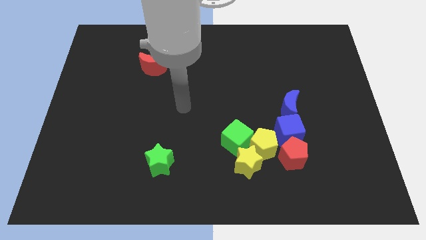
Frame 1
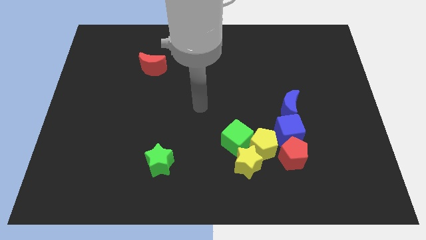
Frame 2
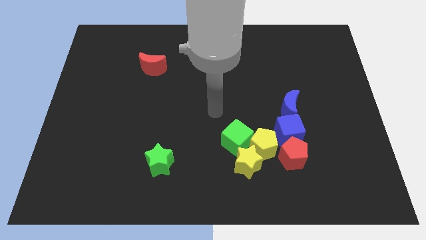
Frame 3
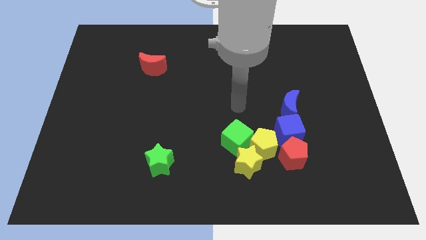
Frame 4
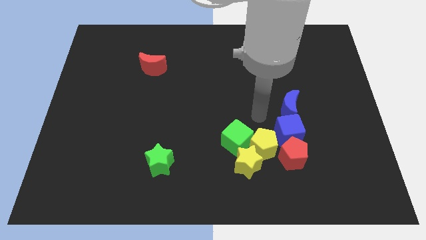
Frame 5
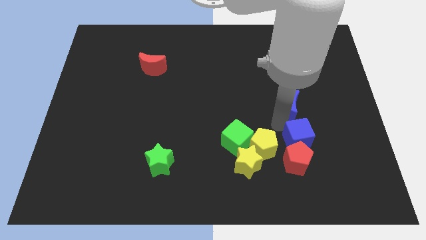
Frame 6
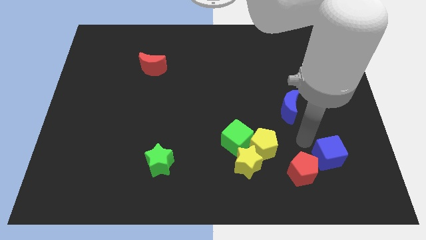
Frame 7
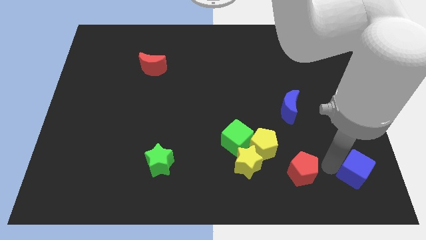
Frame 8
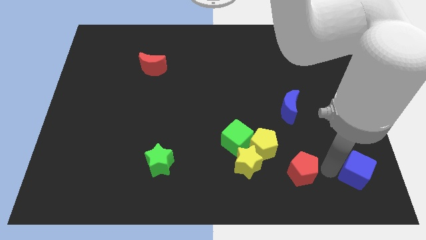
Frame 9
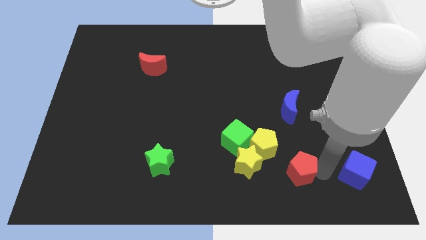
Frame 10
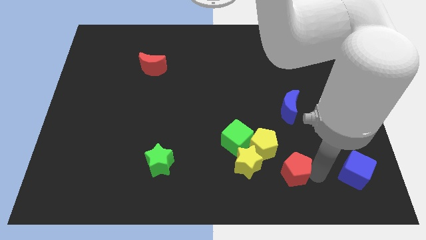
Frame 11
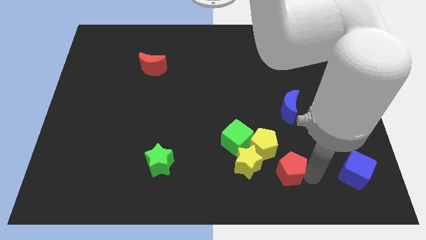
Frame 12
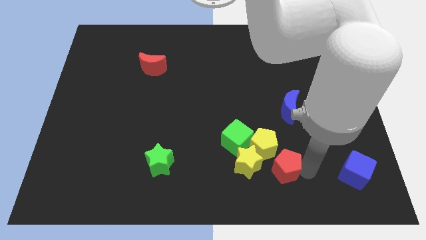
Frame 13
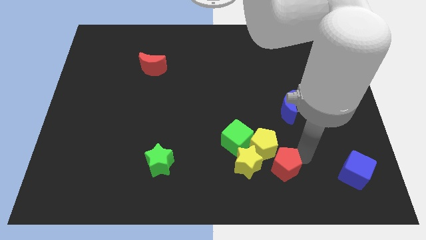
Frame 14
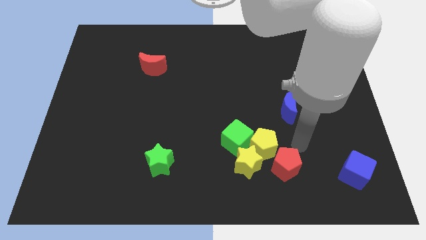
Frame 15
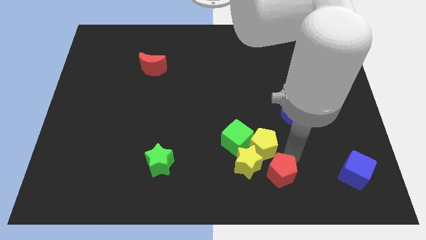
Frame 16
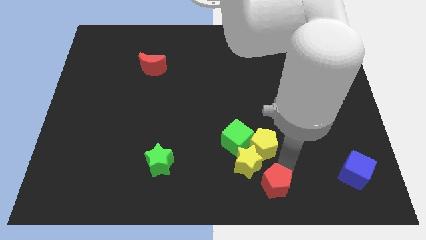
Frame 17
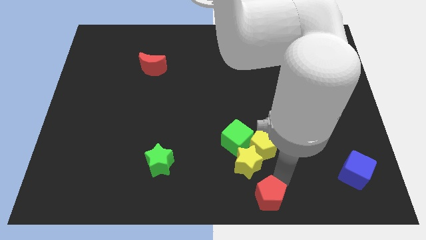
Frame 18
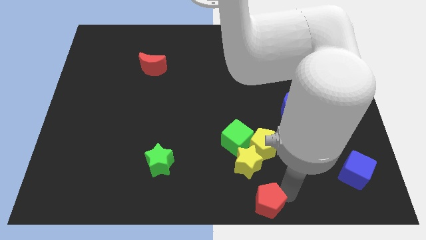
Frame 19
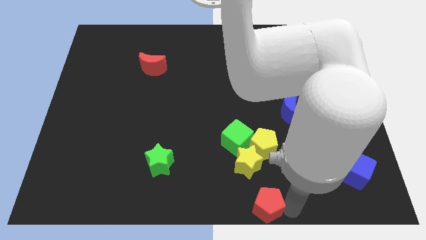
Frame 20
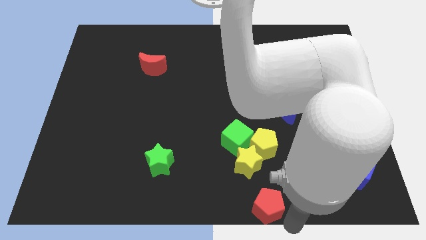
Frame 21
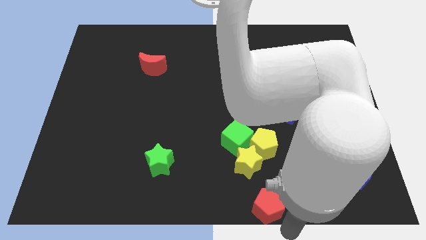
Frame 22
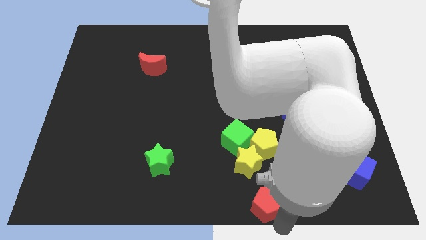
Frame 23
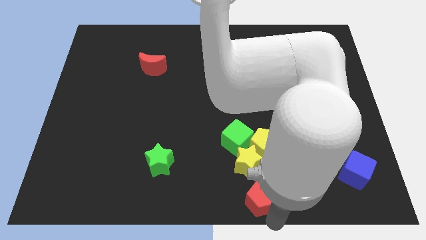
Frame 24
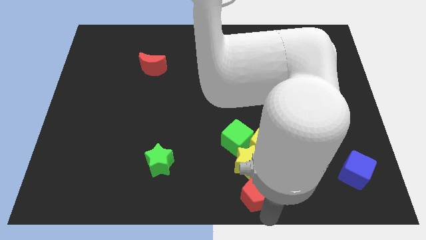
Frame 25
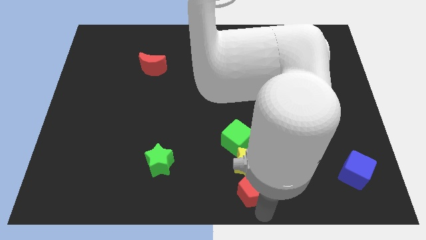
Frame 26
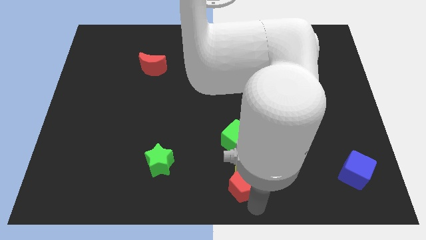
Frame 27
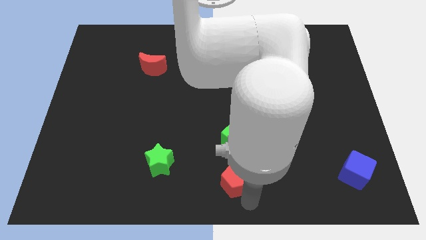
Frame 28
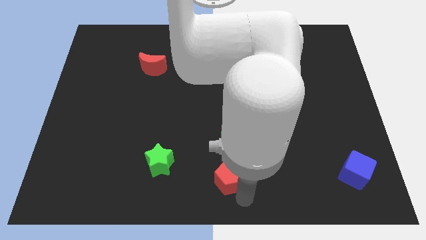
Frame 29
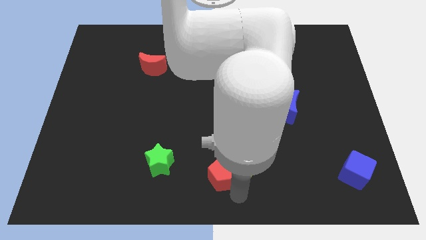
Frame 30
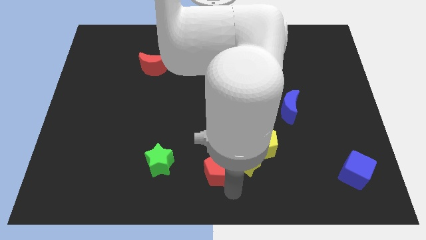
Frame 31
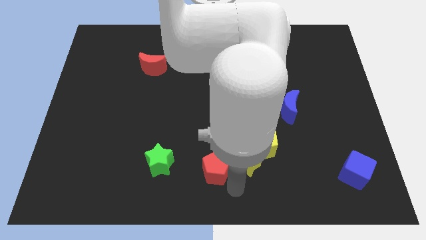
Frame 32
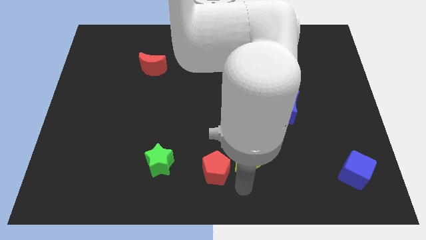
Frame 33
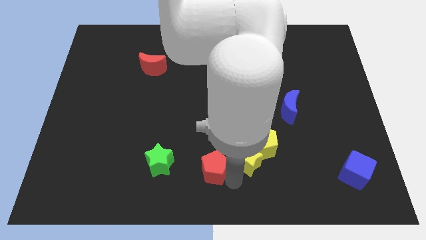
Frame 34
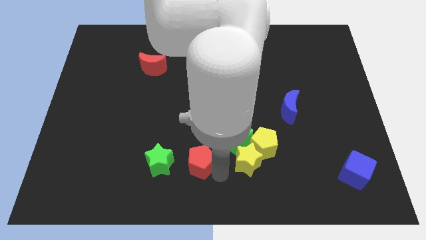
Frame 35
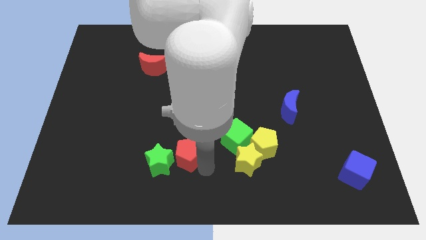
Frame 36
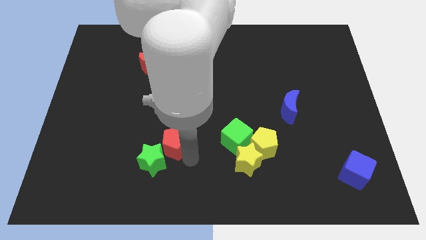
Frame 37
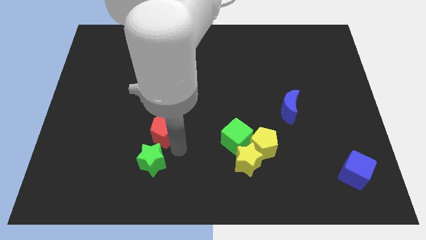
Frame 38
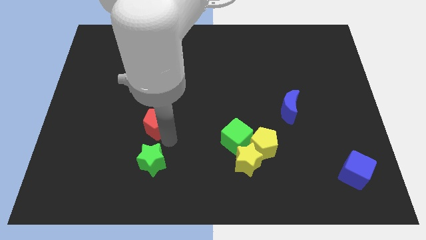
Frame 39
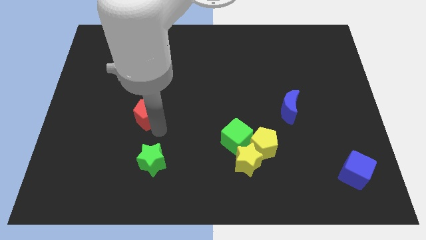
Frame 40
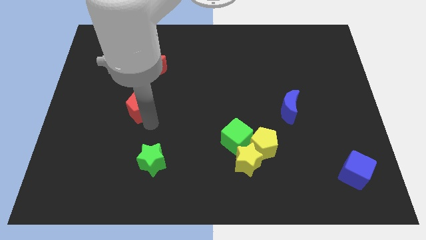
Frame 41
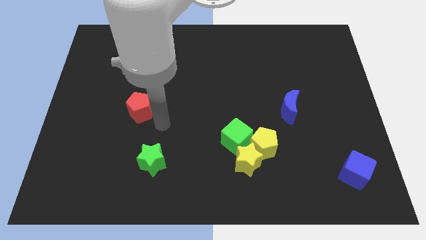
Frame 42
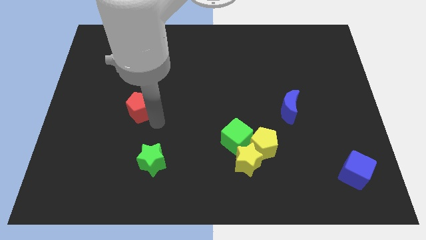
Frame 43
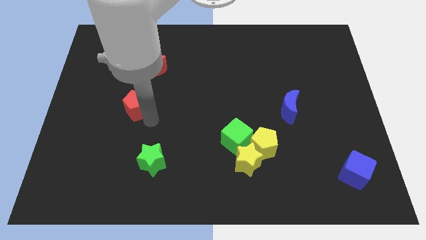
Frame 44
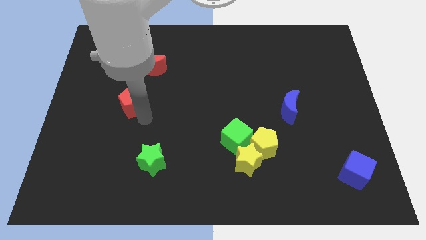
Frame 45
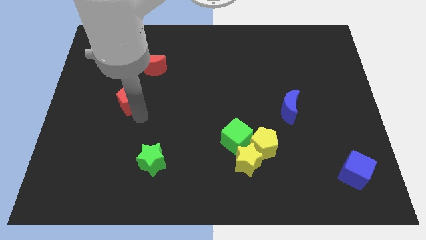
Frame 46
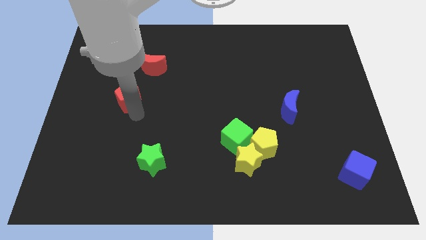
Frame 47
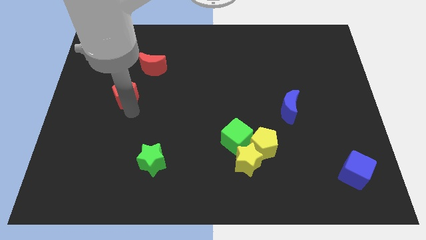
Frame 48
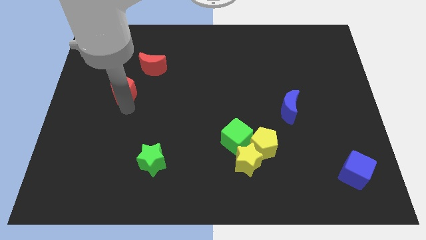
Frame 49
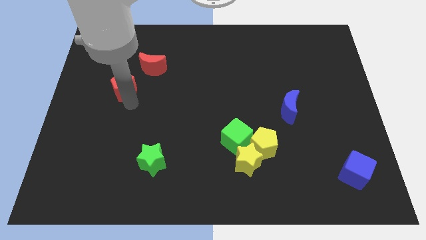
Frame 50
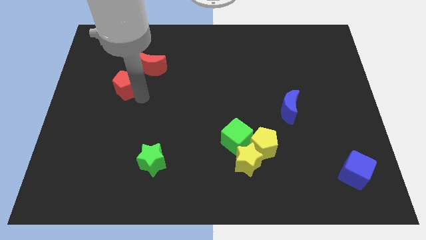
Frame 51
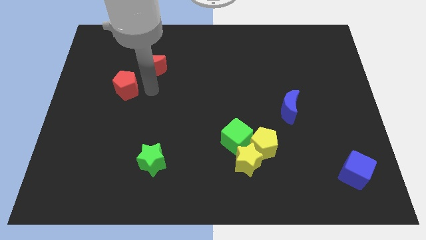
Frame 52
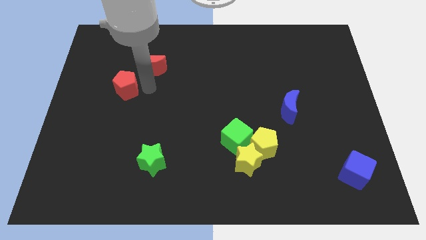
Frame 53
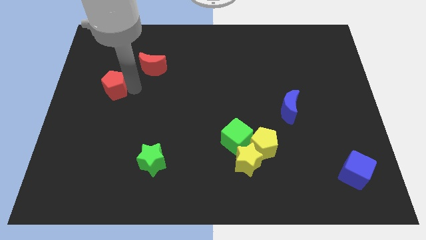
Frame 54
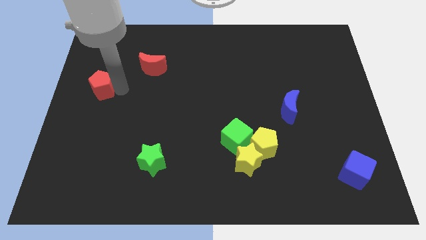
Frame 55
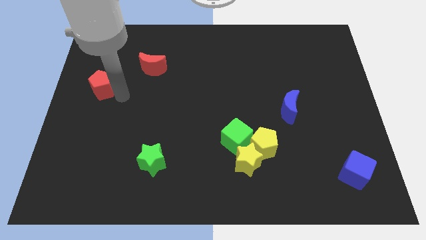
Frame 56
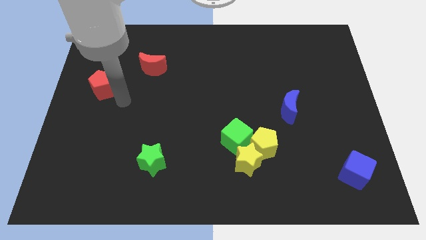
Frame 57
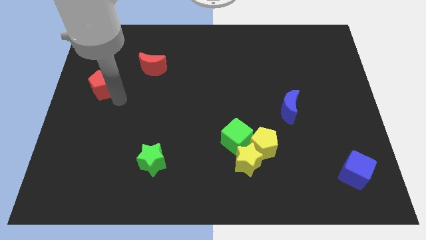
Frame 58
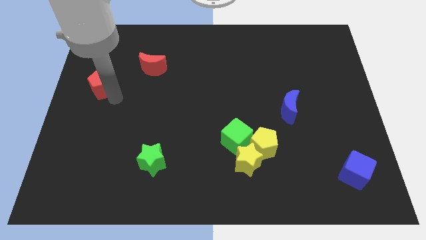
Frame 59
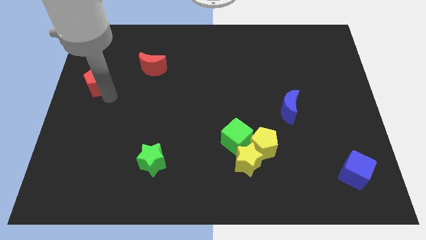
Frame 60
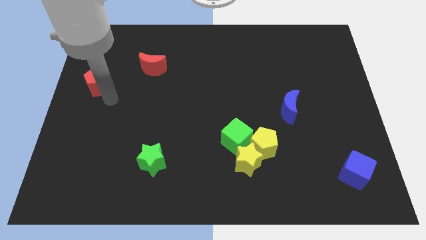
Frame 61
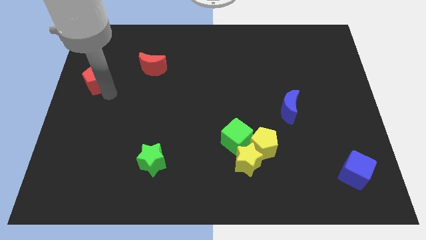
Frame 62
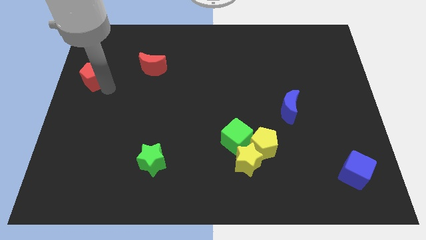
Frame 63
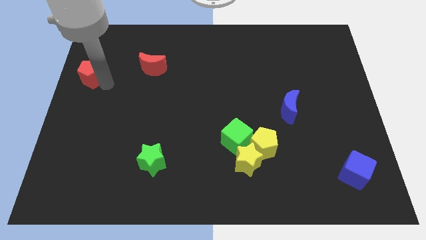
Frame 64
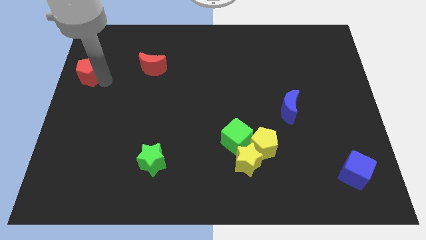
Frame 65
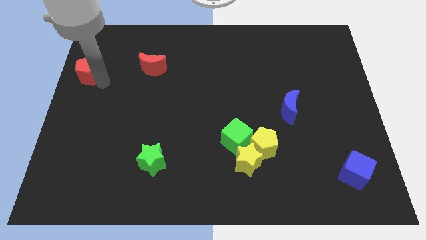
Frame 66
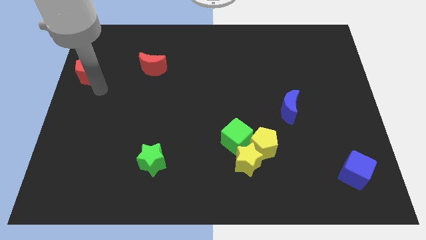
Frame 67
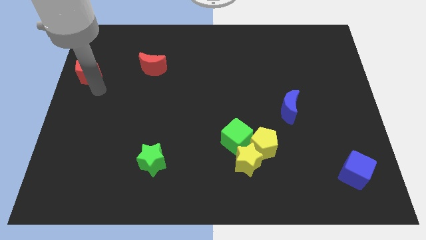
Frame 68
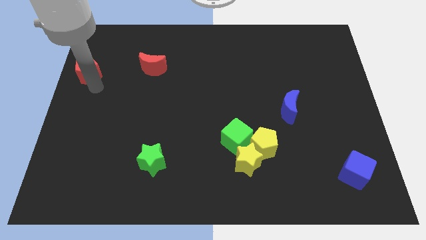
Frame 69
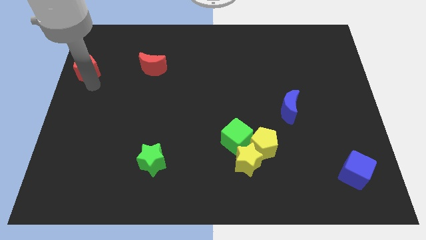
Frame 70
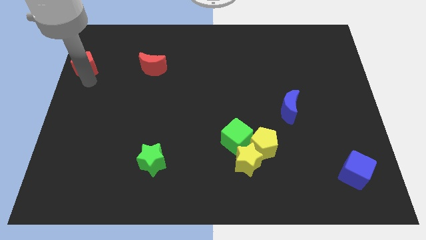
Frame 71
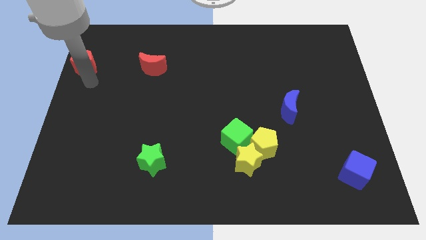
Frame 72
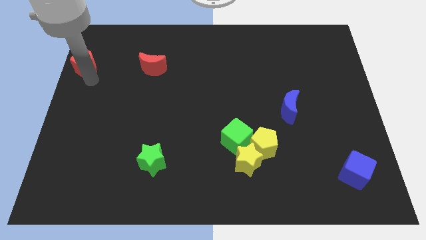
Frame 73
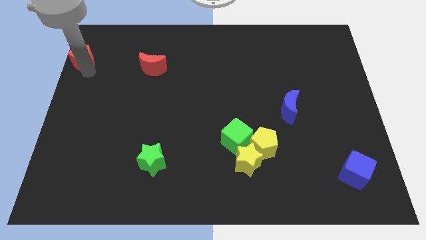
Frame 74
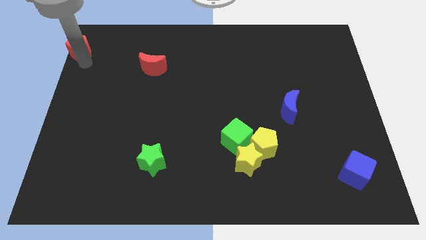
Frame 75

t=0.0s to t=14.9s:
move the red pentagon to the top left of the board
